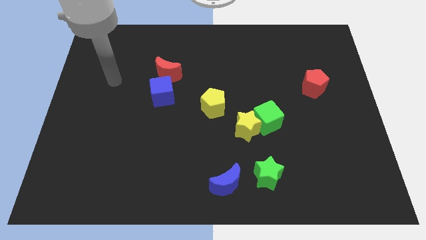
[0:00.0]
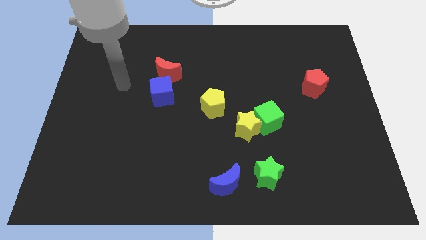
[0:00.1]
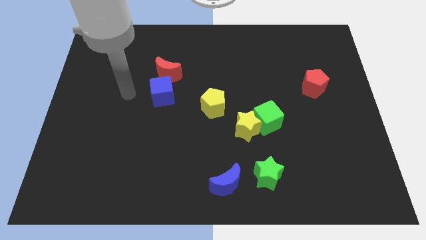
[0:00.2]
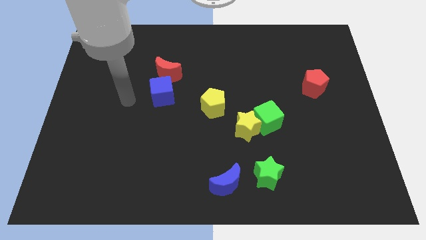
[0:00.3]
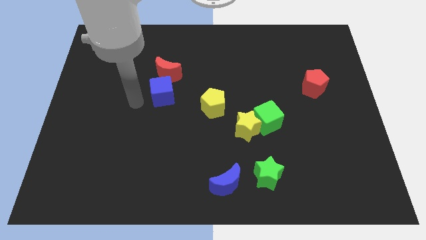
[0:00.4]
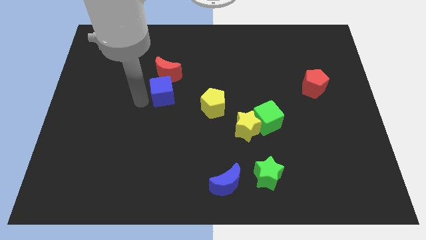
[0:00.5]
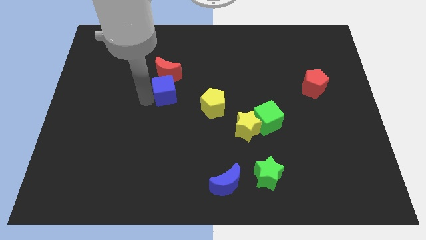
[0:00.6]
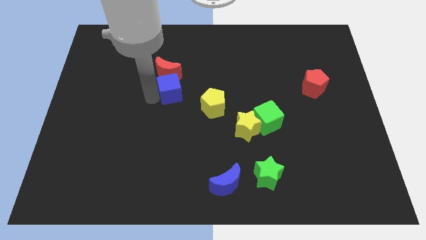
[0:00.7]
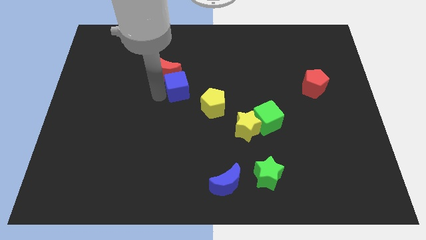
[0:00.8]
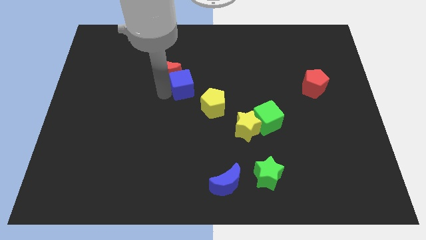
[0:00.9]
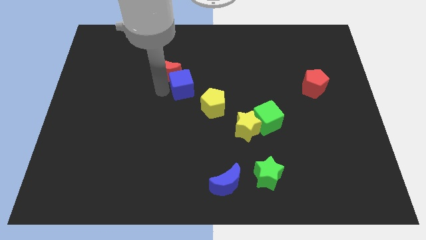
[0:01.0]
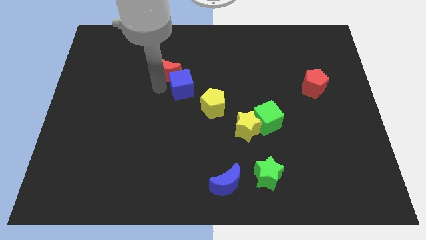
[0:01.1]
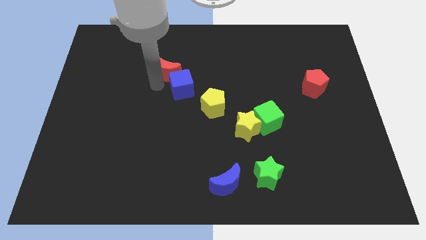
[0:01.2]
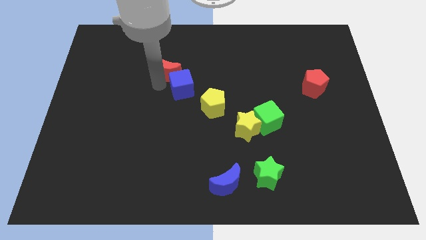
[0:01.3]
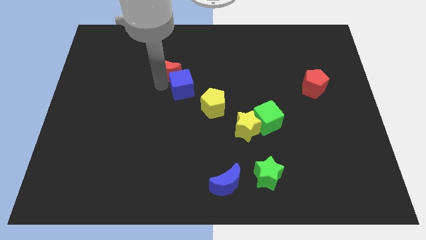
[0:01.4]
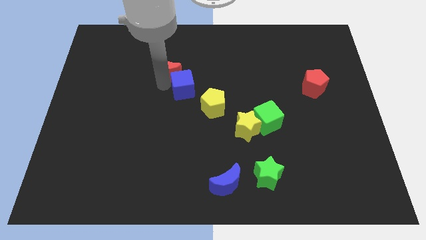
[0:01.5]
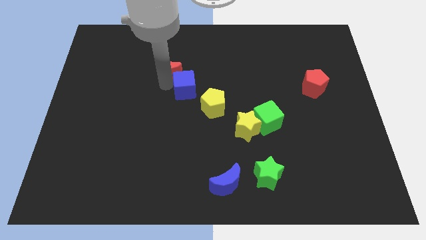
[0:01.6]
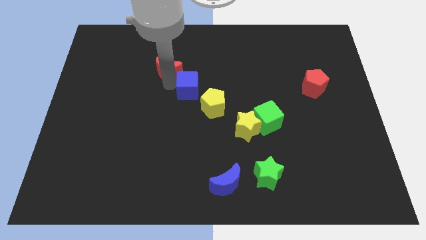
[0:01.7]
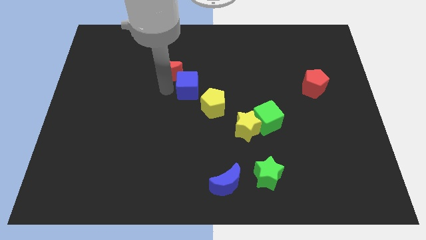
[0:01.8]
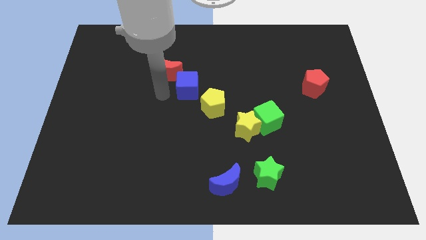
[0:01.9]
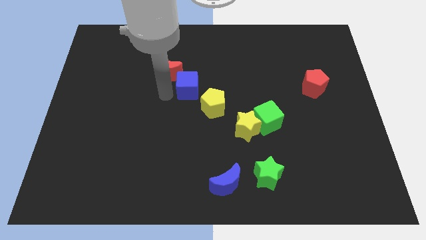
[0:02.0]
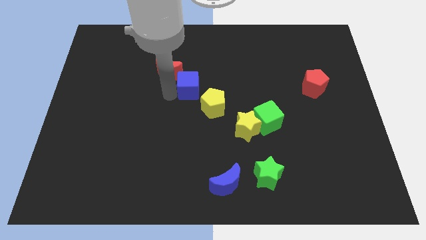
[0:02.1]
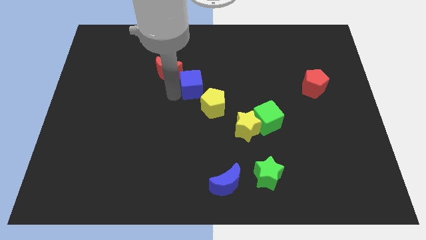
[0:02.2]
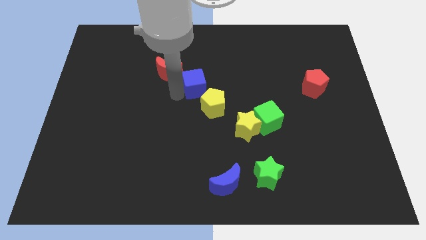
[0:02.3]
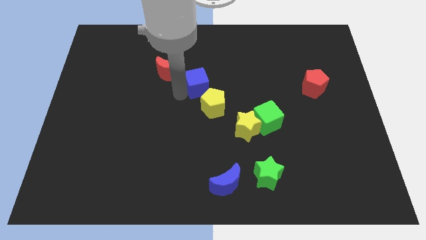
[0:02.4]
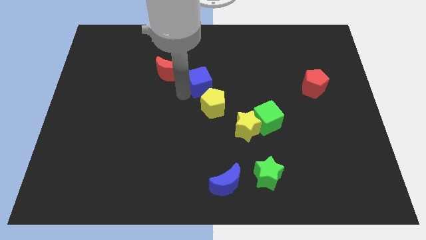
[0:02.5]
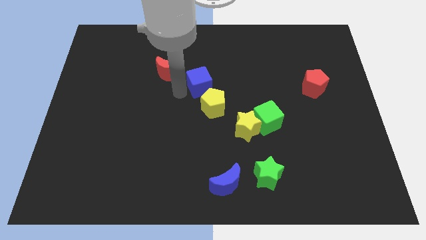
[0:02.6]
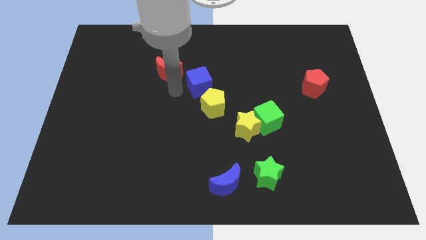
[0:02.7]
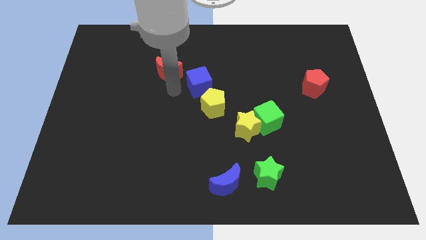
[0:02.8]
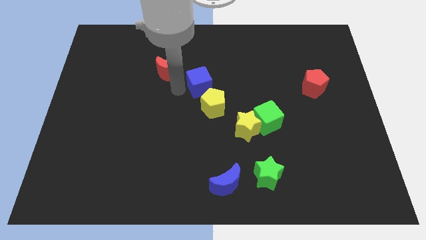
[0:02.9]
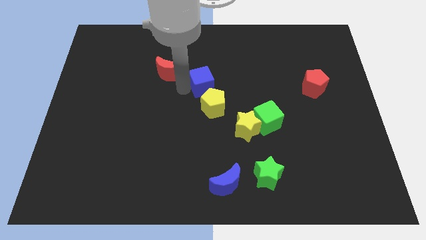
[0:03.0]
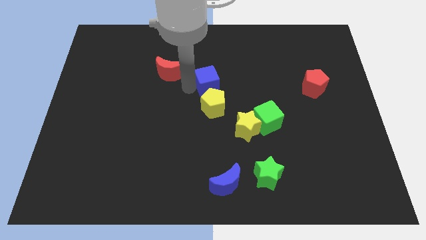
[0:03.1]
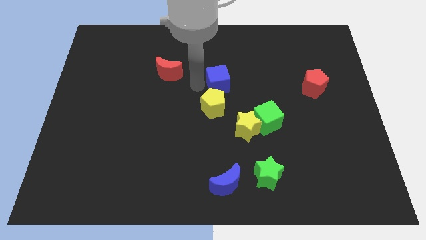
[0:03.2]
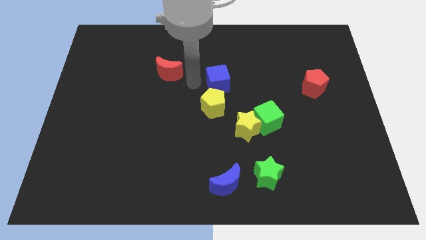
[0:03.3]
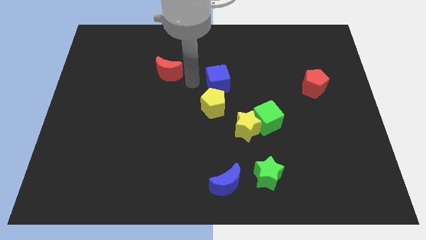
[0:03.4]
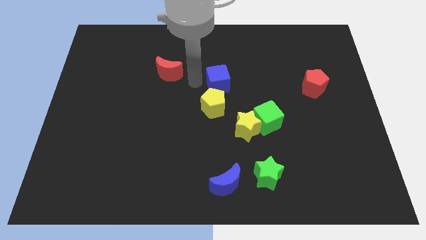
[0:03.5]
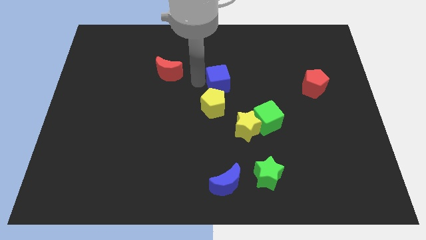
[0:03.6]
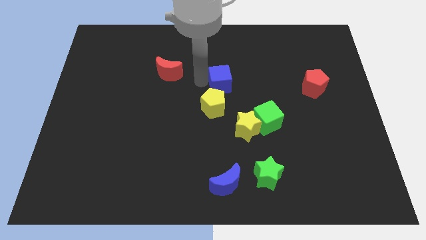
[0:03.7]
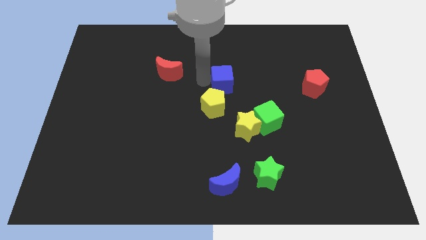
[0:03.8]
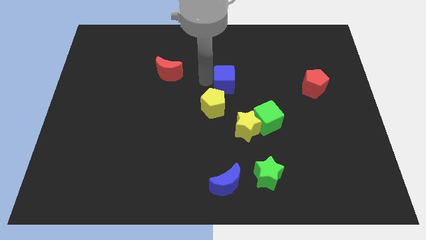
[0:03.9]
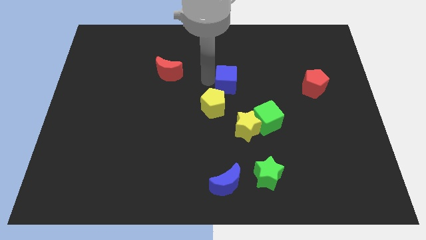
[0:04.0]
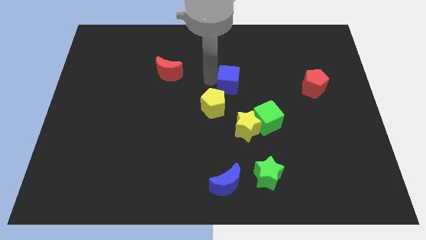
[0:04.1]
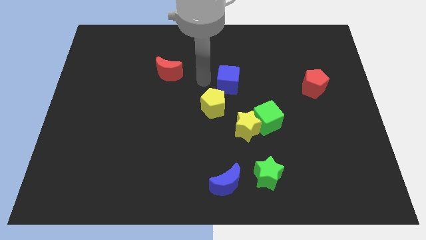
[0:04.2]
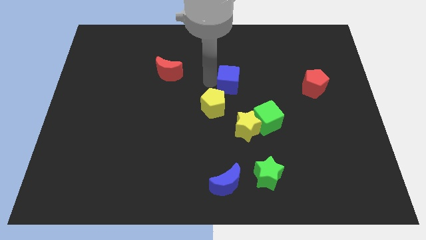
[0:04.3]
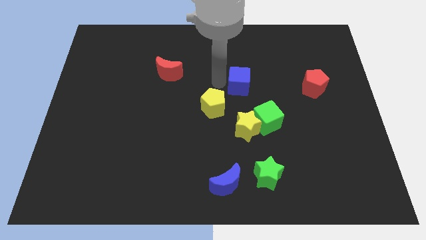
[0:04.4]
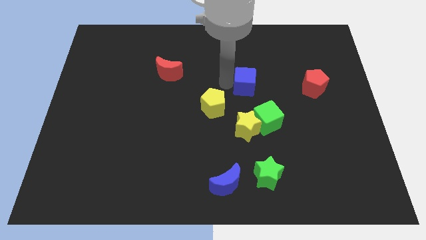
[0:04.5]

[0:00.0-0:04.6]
push the blue cube to the top of the green cube

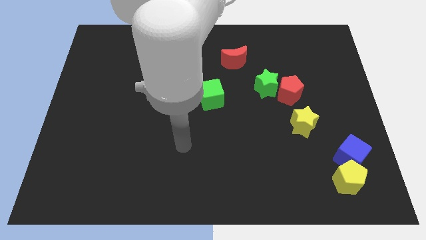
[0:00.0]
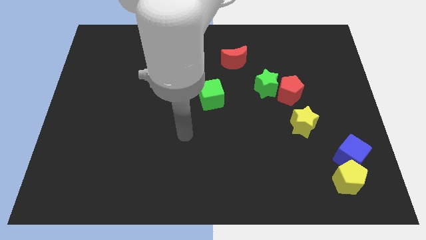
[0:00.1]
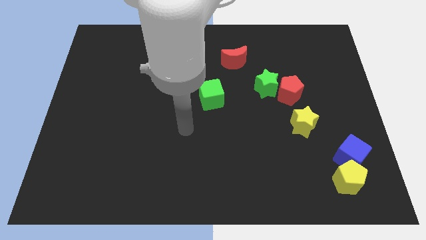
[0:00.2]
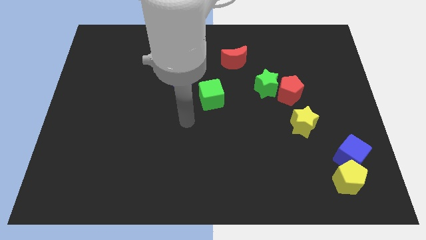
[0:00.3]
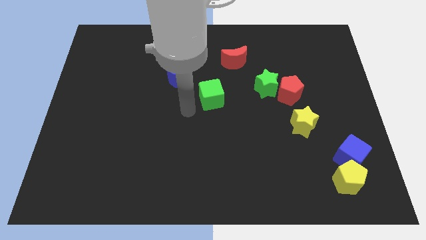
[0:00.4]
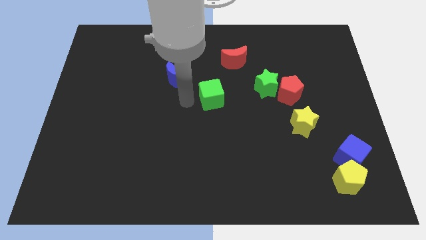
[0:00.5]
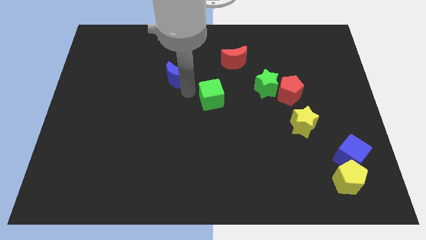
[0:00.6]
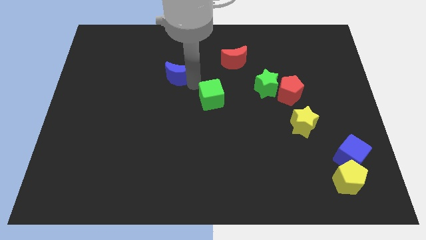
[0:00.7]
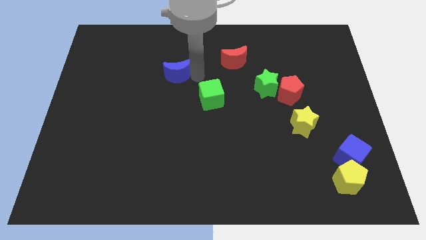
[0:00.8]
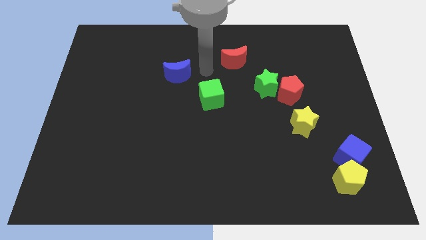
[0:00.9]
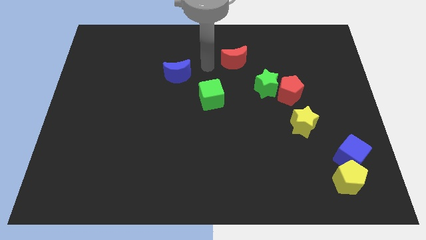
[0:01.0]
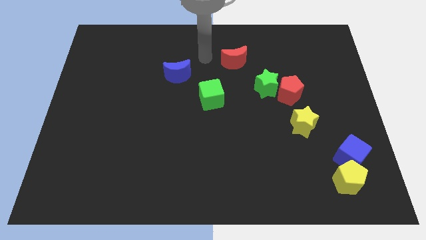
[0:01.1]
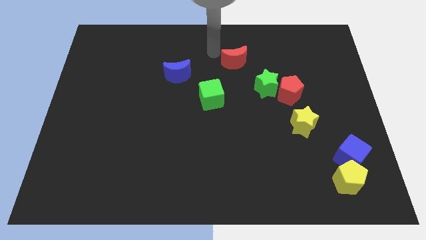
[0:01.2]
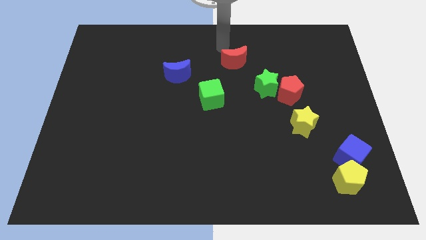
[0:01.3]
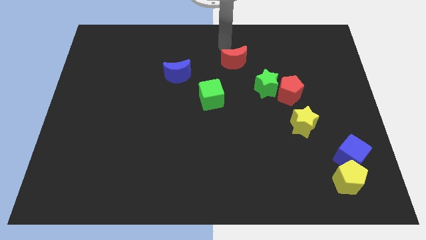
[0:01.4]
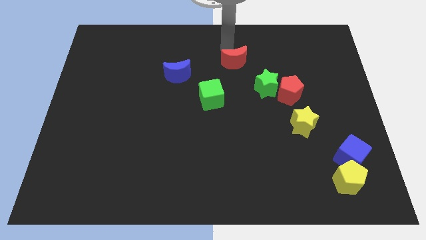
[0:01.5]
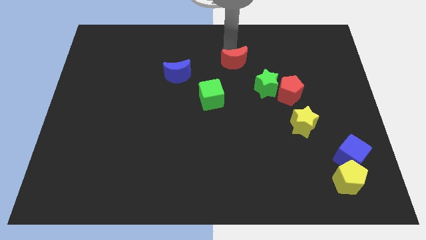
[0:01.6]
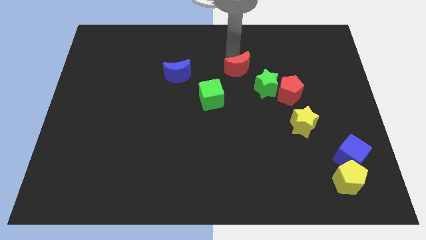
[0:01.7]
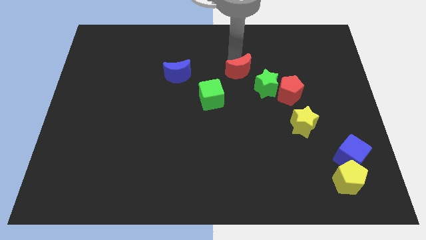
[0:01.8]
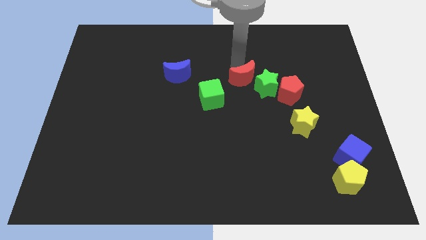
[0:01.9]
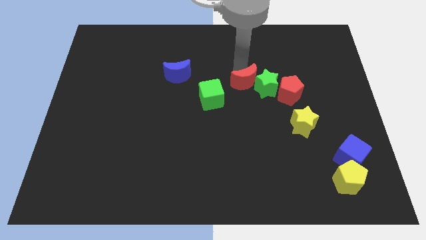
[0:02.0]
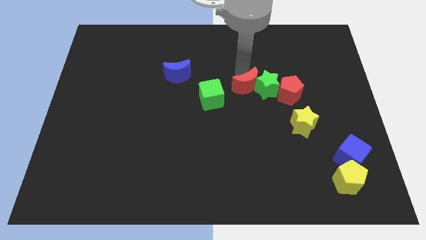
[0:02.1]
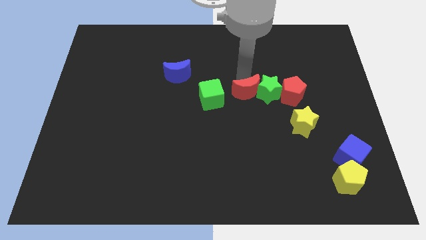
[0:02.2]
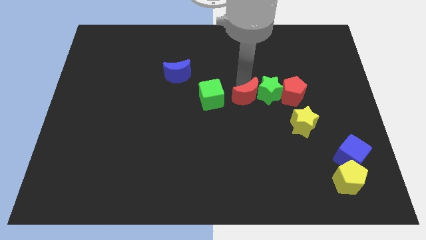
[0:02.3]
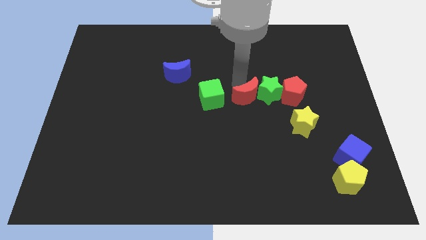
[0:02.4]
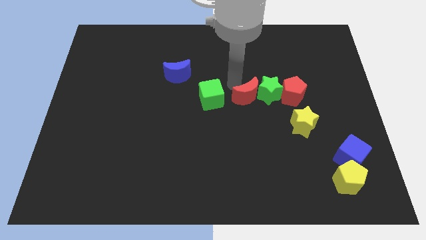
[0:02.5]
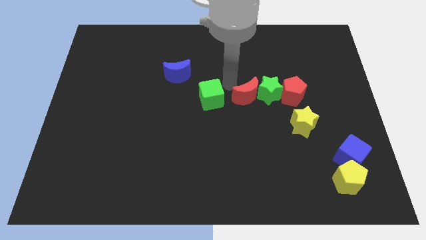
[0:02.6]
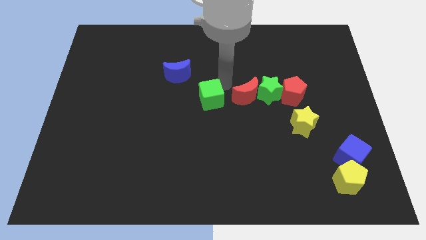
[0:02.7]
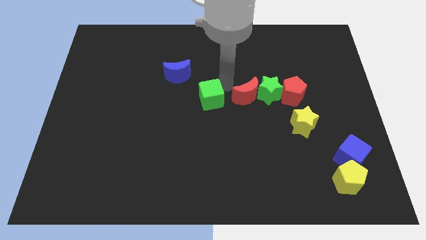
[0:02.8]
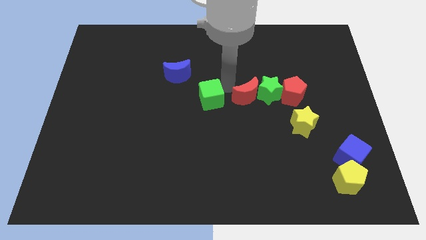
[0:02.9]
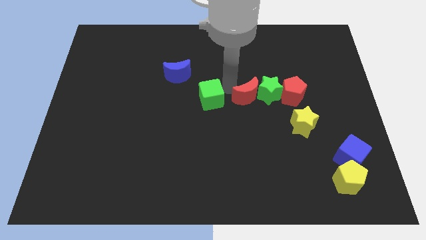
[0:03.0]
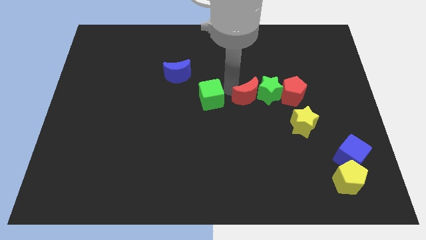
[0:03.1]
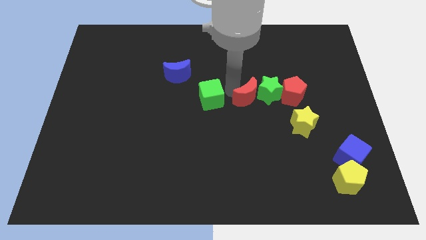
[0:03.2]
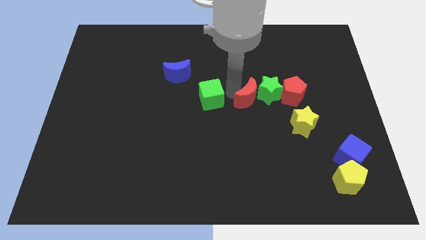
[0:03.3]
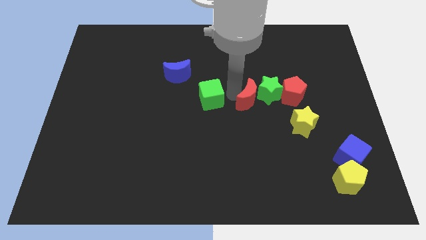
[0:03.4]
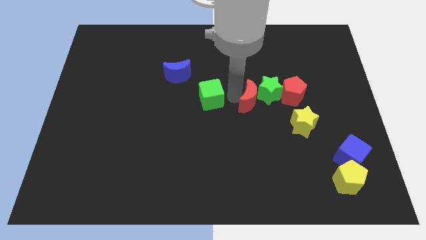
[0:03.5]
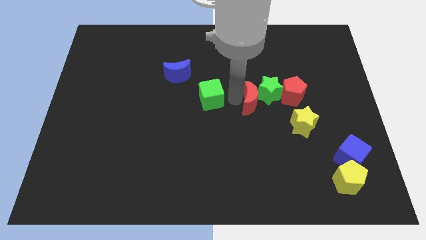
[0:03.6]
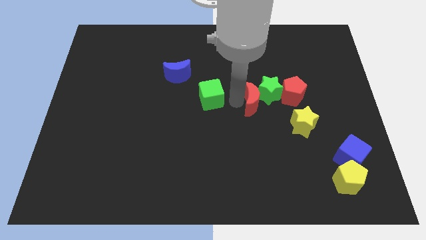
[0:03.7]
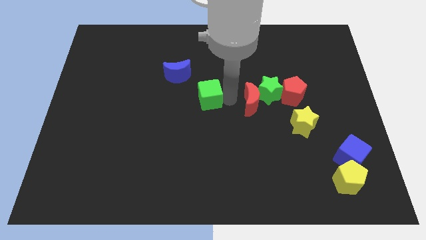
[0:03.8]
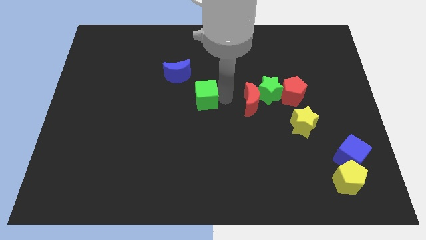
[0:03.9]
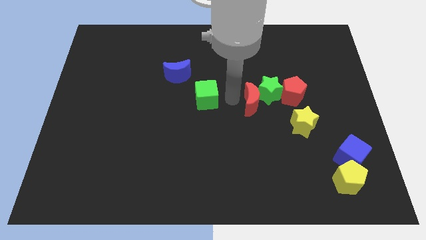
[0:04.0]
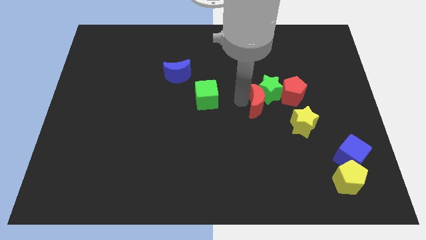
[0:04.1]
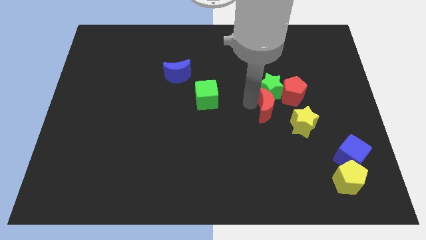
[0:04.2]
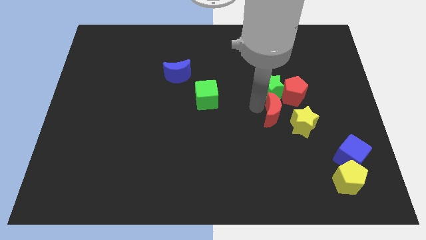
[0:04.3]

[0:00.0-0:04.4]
slide the red moon to the bottom right side of the green star
